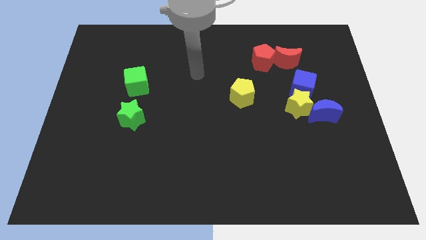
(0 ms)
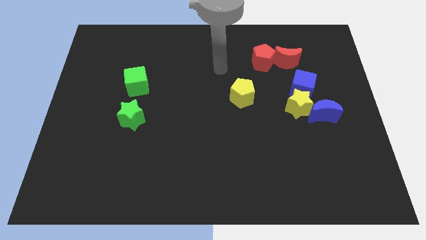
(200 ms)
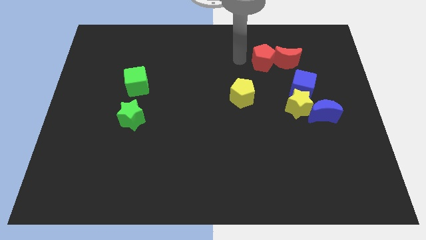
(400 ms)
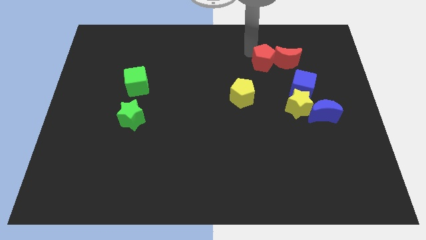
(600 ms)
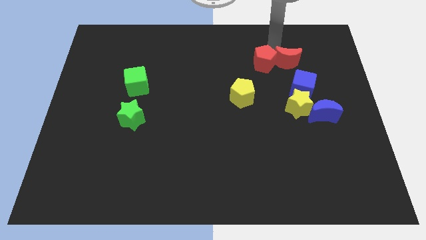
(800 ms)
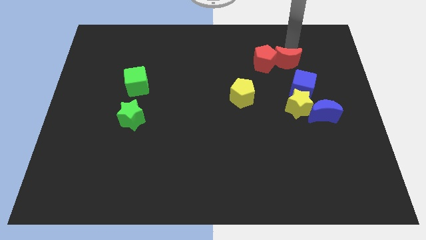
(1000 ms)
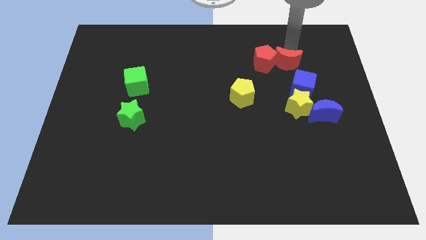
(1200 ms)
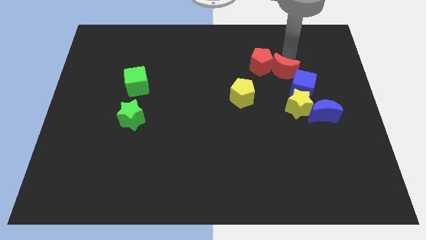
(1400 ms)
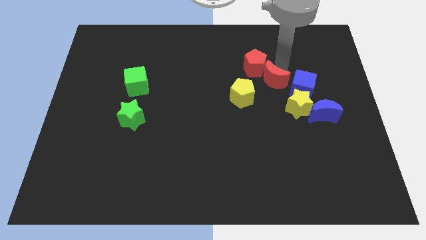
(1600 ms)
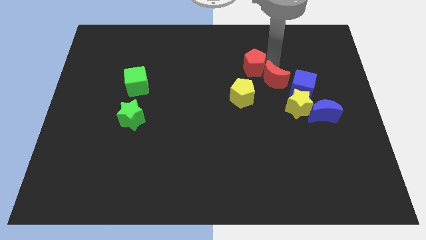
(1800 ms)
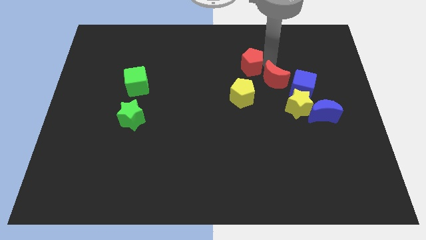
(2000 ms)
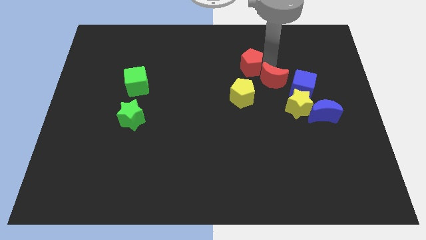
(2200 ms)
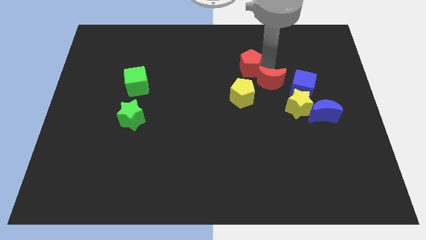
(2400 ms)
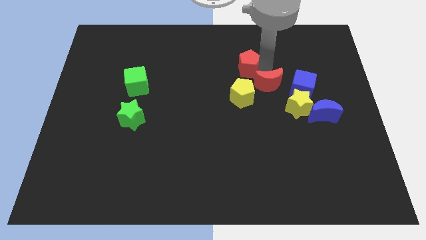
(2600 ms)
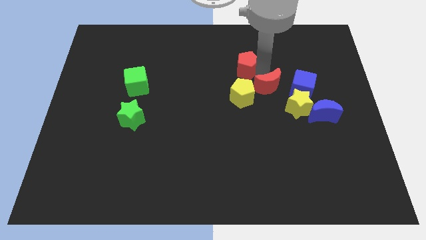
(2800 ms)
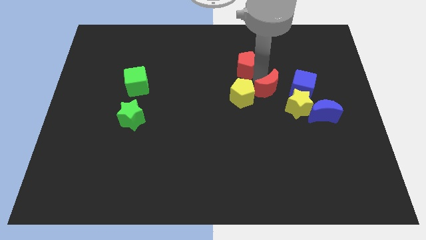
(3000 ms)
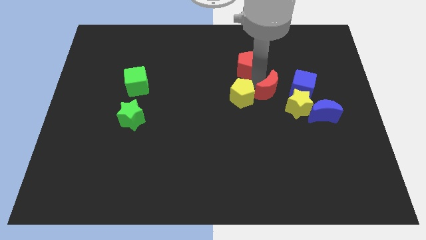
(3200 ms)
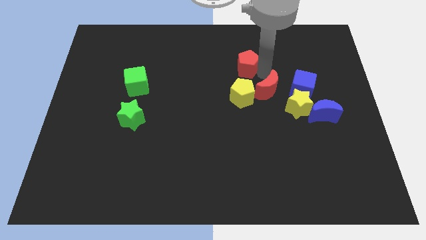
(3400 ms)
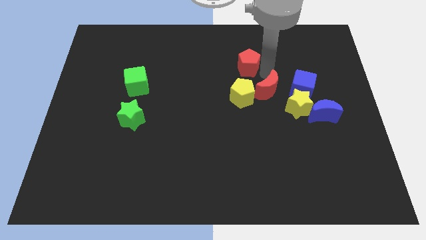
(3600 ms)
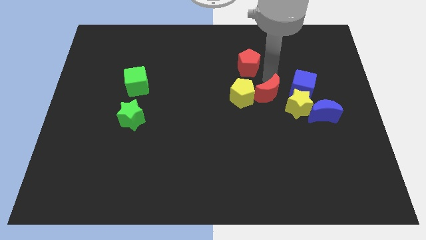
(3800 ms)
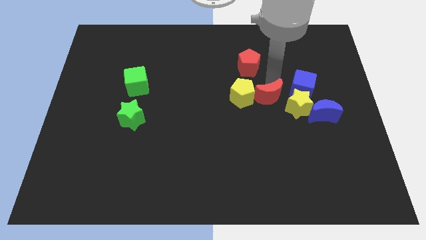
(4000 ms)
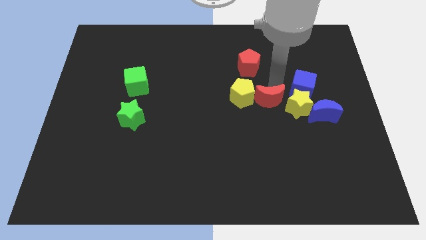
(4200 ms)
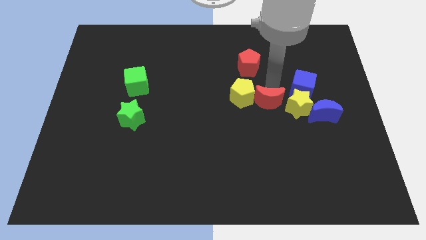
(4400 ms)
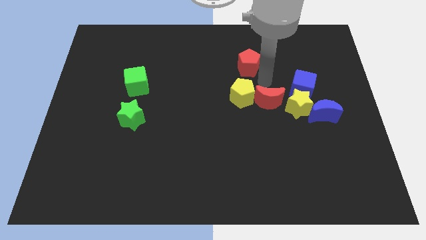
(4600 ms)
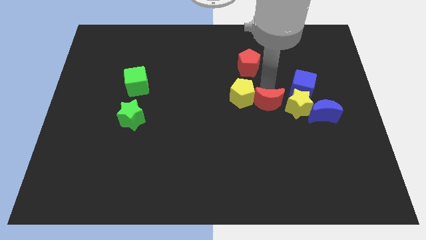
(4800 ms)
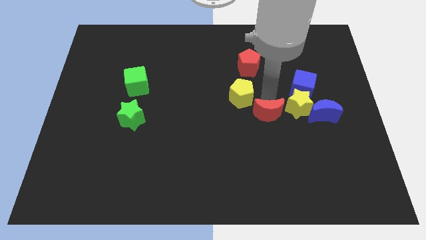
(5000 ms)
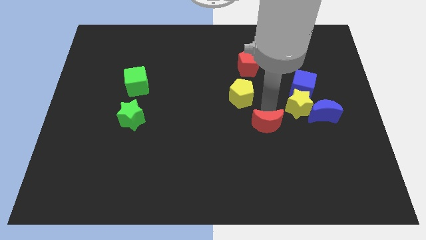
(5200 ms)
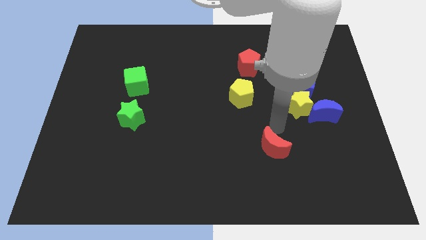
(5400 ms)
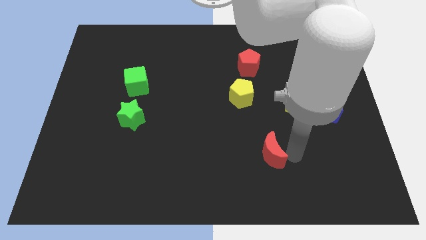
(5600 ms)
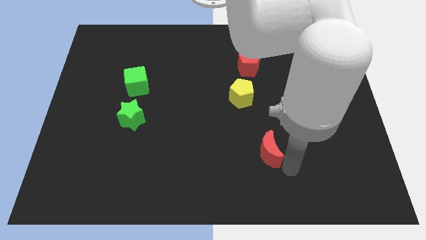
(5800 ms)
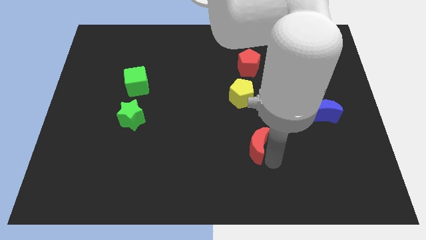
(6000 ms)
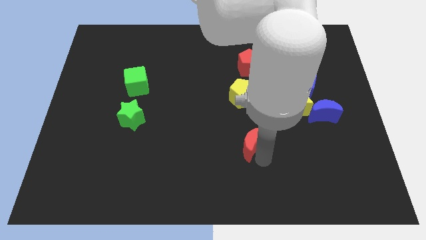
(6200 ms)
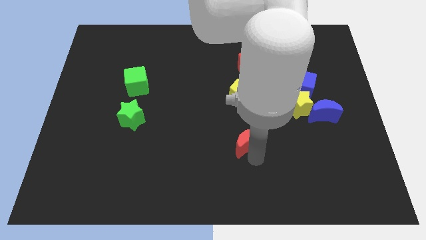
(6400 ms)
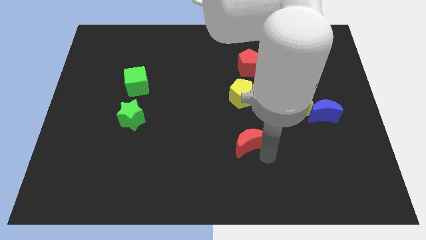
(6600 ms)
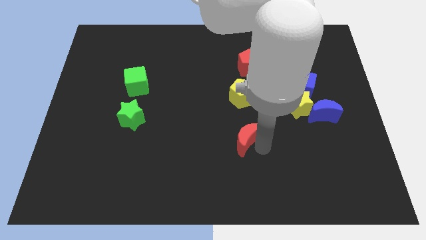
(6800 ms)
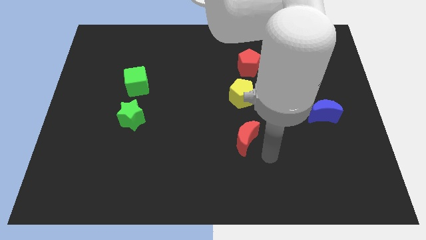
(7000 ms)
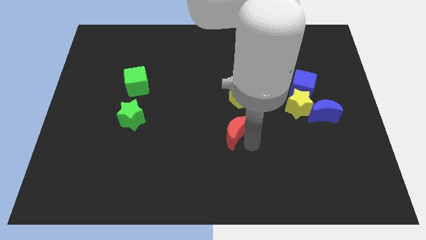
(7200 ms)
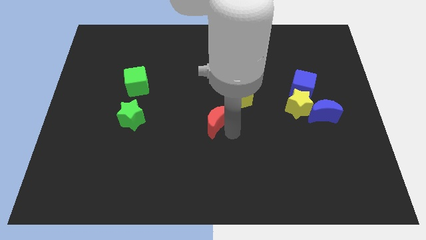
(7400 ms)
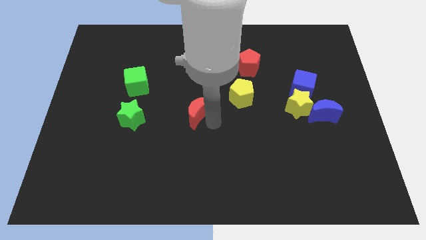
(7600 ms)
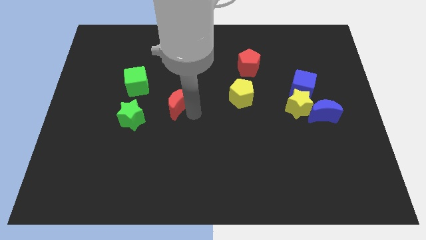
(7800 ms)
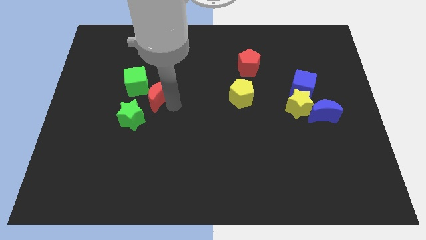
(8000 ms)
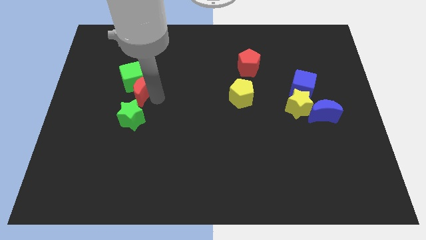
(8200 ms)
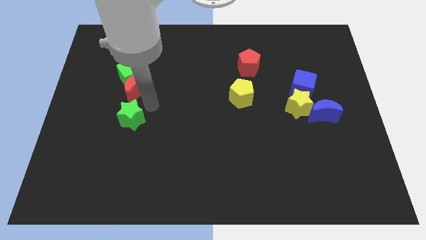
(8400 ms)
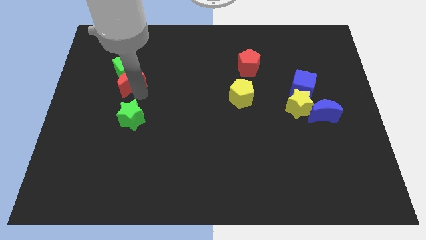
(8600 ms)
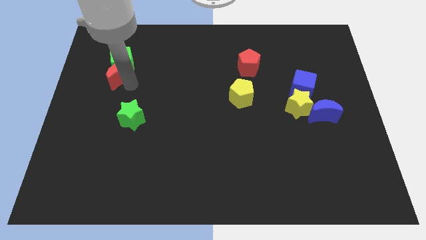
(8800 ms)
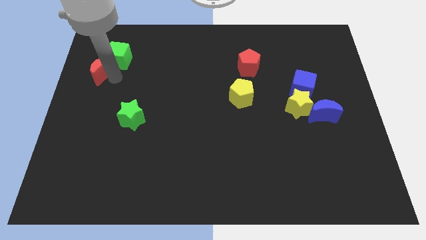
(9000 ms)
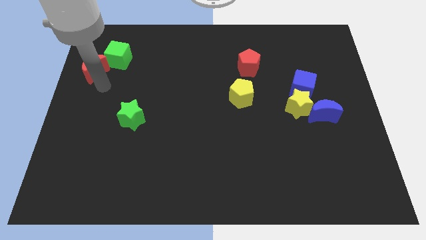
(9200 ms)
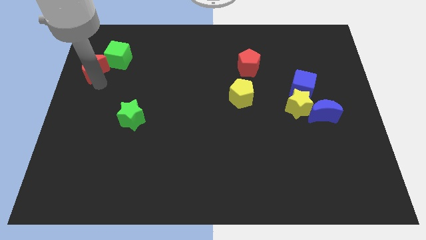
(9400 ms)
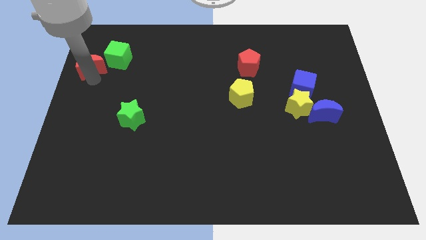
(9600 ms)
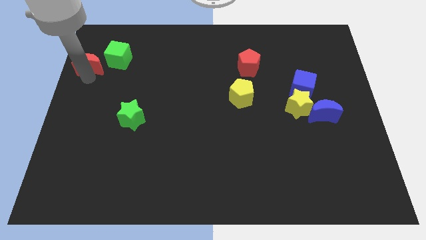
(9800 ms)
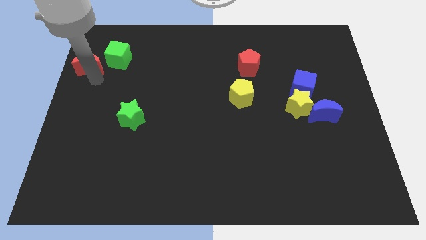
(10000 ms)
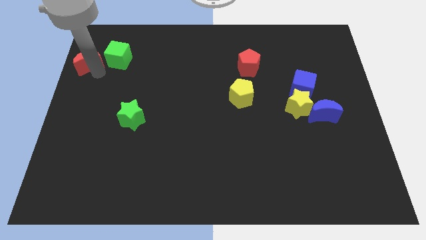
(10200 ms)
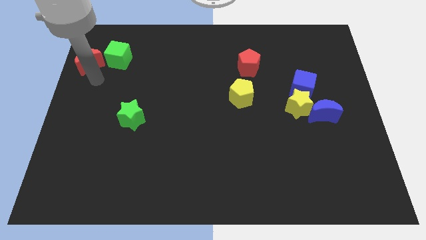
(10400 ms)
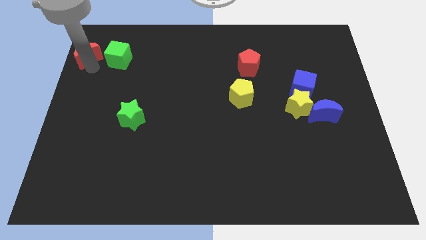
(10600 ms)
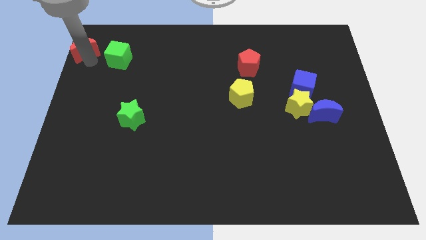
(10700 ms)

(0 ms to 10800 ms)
slide the red moon to the top left of the board

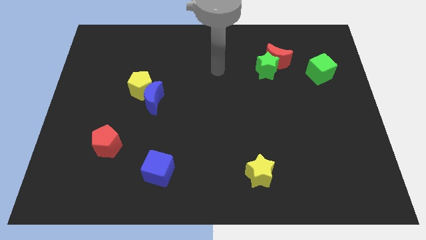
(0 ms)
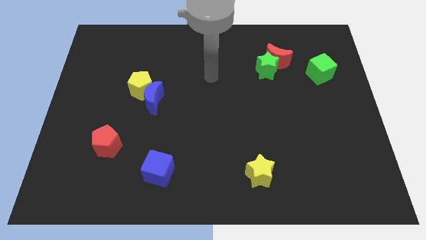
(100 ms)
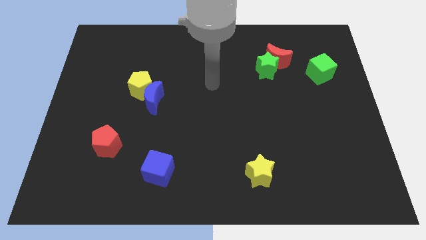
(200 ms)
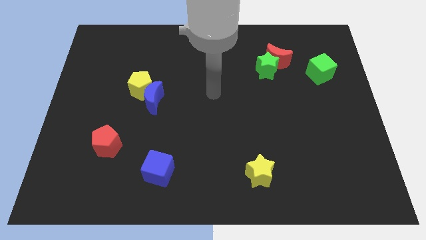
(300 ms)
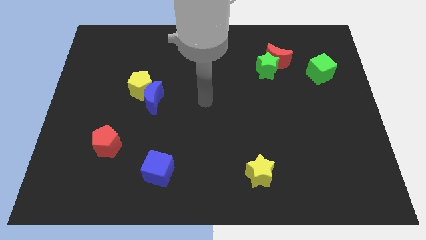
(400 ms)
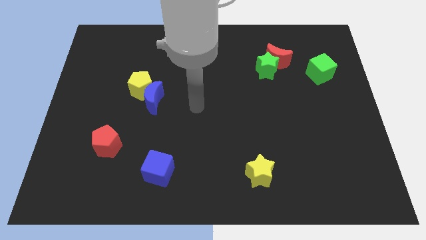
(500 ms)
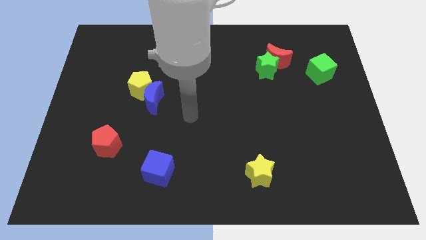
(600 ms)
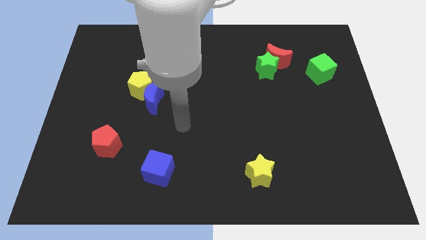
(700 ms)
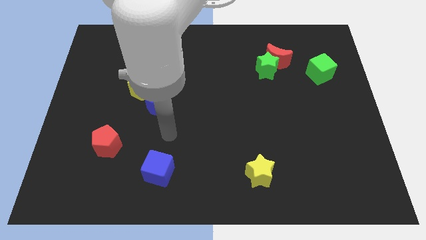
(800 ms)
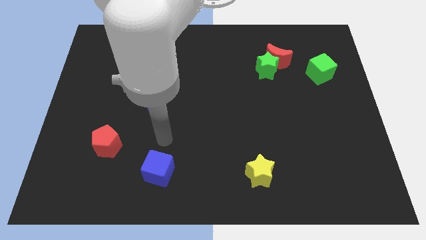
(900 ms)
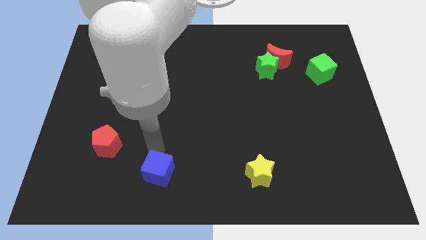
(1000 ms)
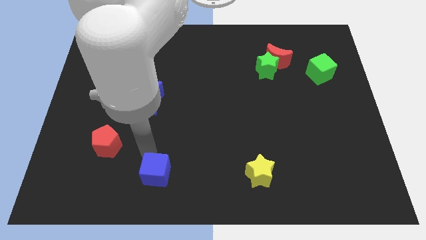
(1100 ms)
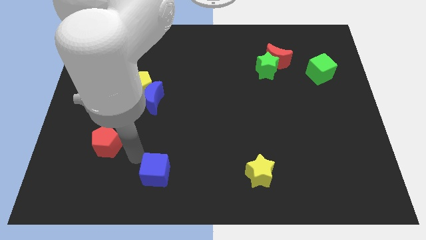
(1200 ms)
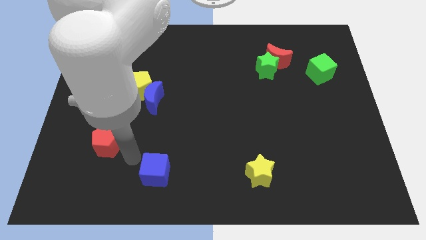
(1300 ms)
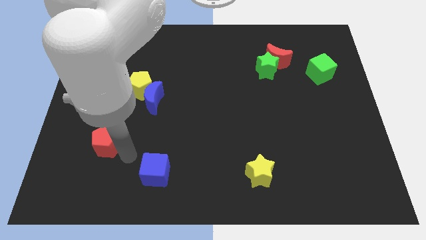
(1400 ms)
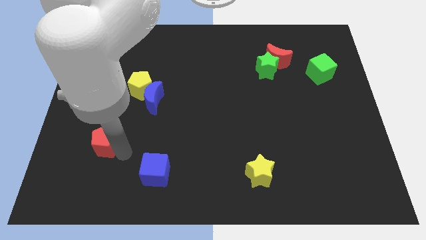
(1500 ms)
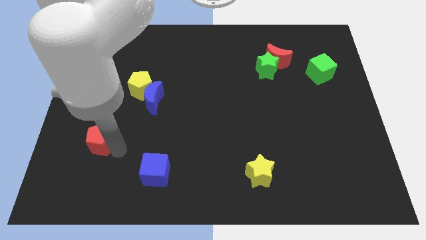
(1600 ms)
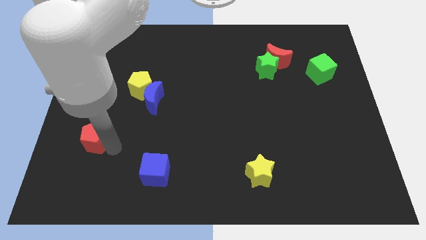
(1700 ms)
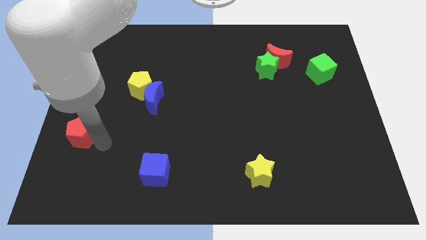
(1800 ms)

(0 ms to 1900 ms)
put the red pentagon to the left side

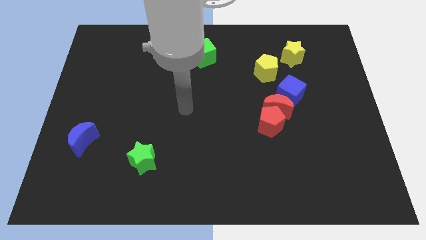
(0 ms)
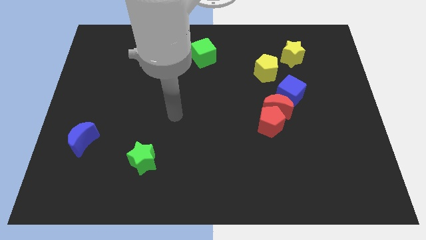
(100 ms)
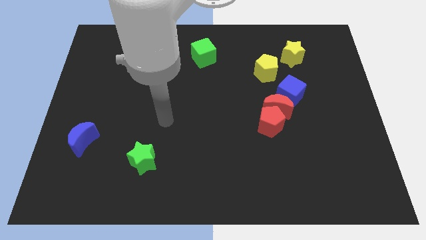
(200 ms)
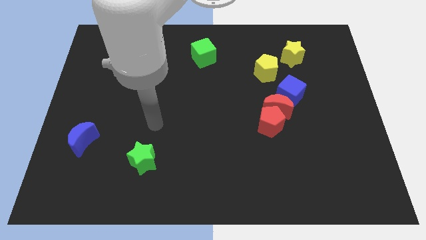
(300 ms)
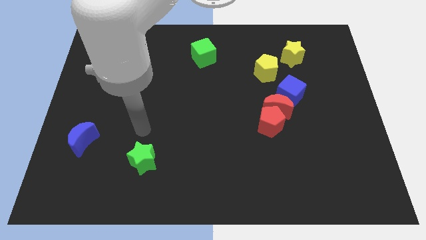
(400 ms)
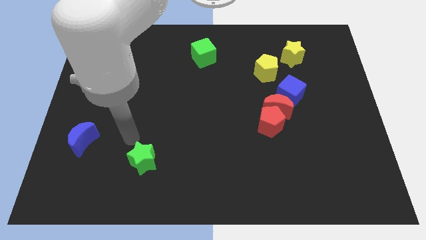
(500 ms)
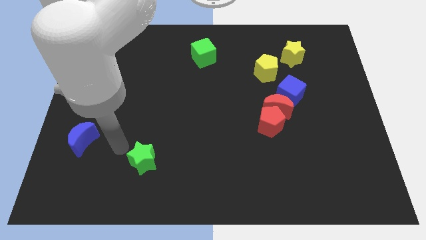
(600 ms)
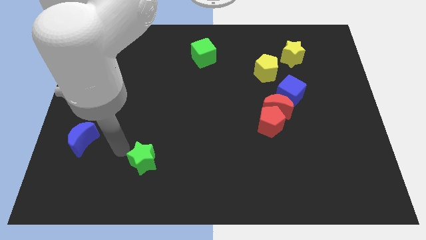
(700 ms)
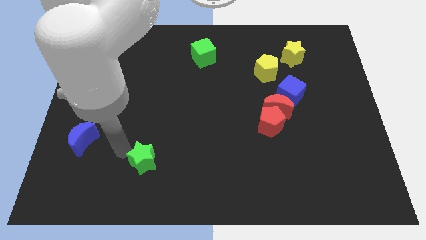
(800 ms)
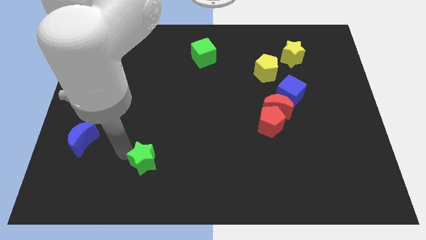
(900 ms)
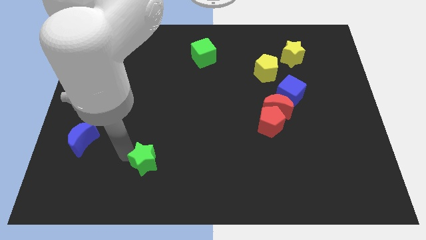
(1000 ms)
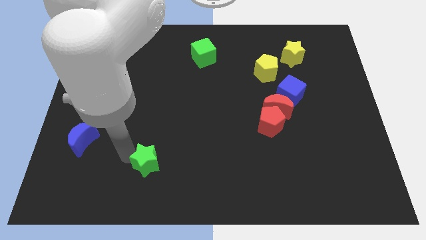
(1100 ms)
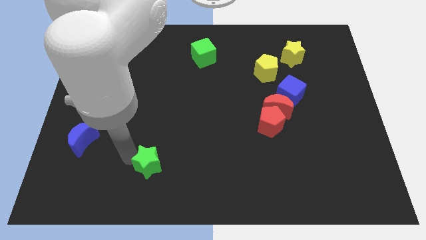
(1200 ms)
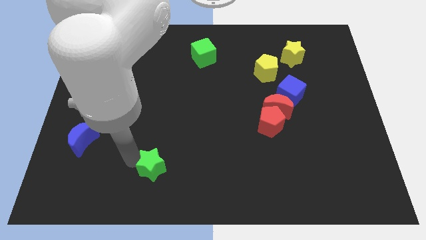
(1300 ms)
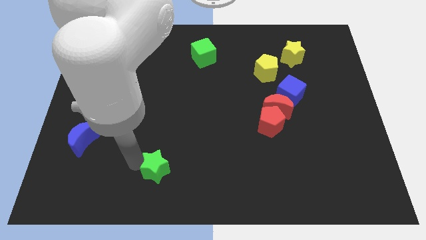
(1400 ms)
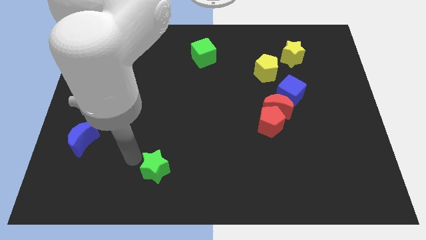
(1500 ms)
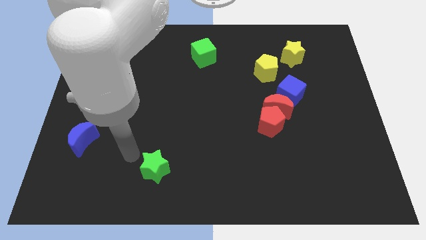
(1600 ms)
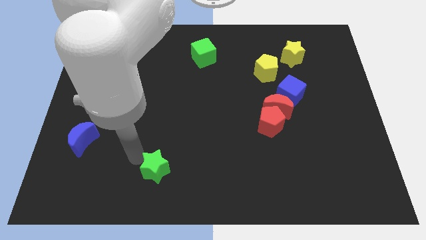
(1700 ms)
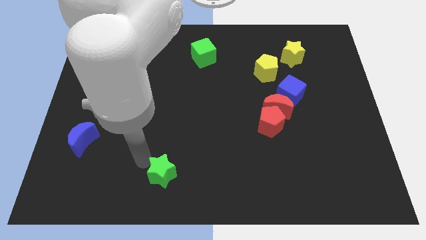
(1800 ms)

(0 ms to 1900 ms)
push the green star to the bottom
